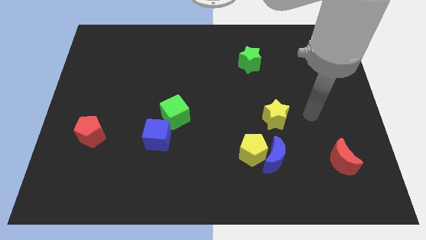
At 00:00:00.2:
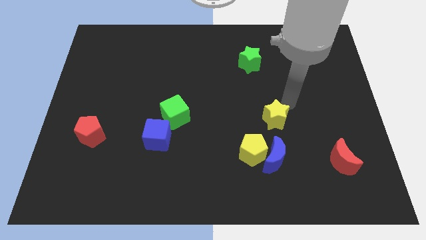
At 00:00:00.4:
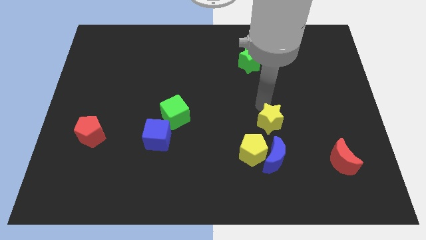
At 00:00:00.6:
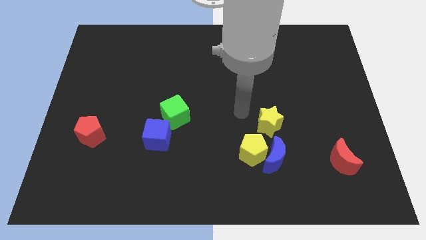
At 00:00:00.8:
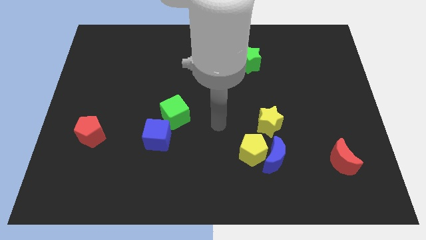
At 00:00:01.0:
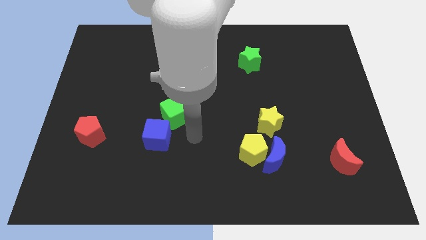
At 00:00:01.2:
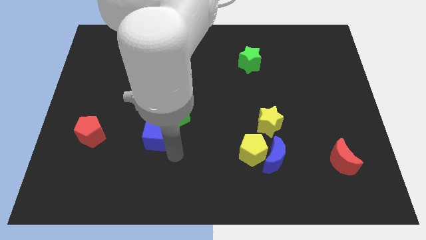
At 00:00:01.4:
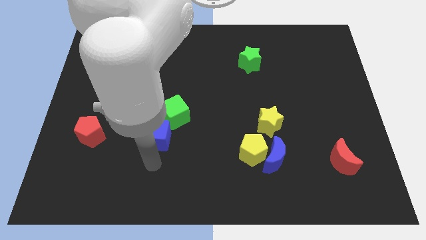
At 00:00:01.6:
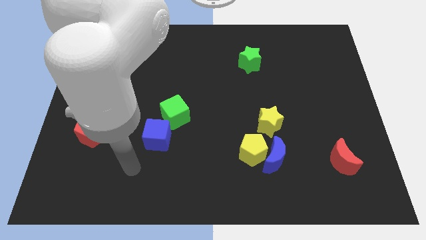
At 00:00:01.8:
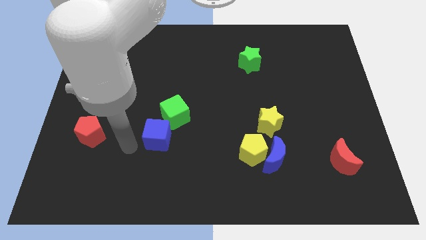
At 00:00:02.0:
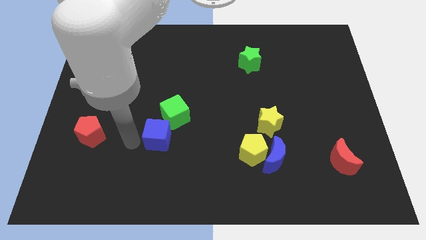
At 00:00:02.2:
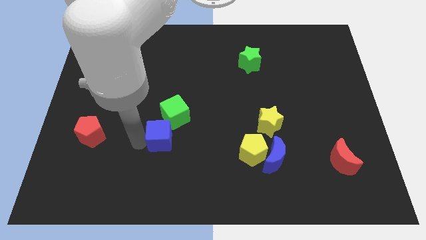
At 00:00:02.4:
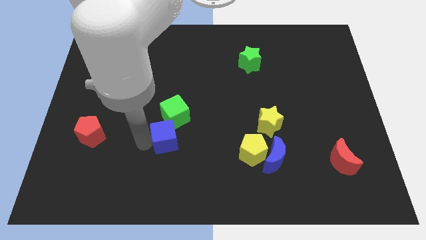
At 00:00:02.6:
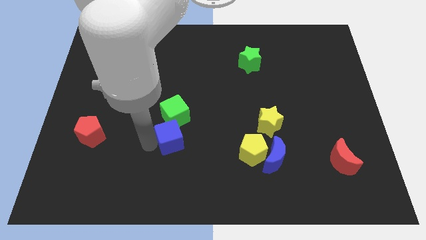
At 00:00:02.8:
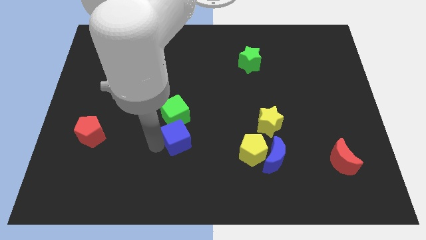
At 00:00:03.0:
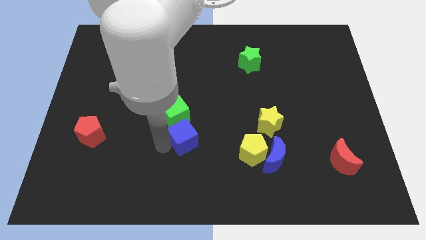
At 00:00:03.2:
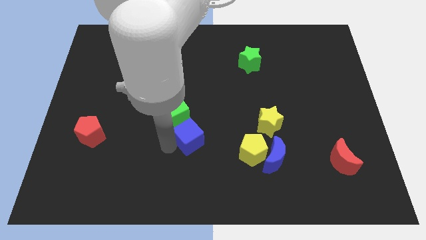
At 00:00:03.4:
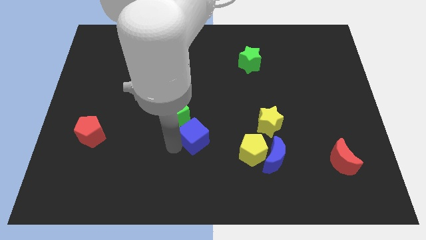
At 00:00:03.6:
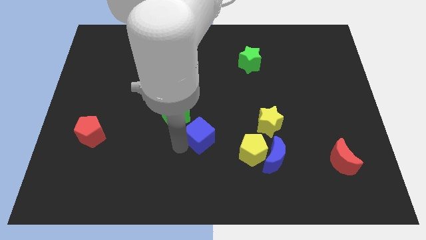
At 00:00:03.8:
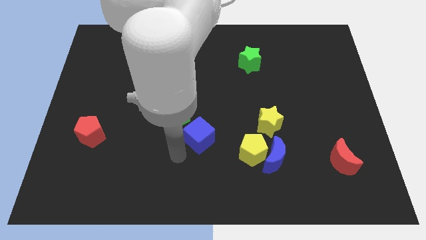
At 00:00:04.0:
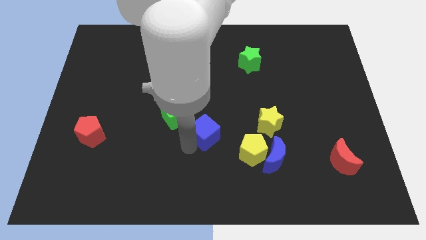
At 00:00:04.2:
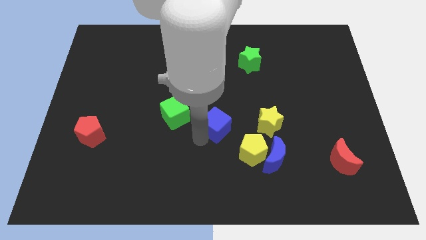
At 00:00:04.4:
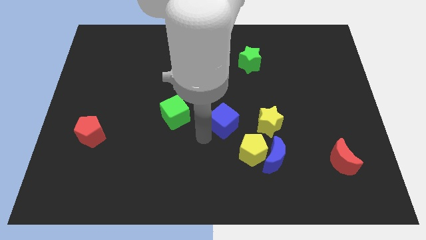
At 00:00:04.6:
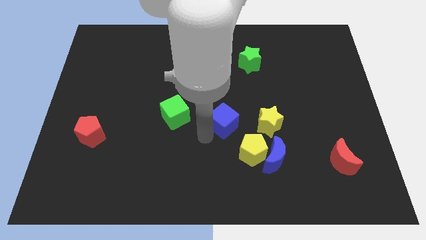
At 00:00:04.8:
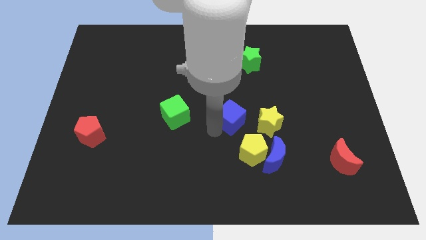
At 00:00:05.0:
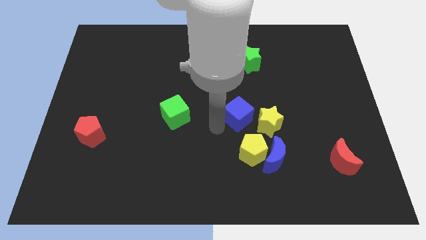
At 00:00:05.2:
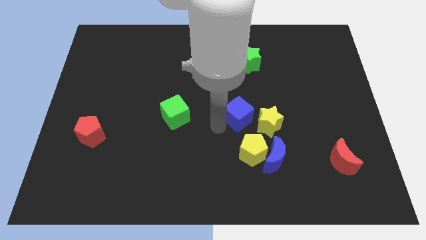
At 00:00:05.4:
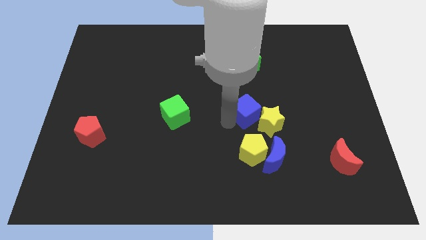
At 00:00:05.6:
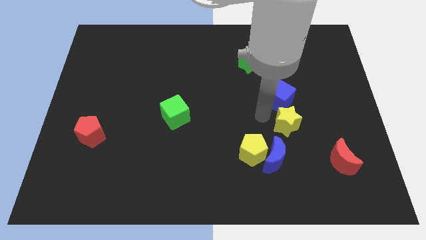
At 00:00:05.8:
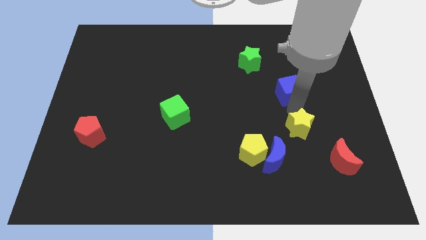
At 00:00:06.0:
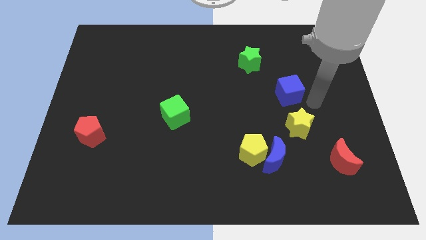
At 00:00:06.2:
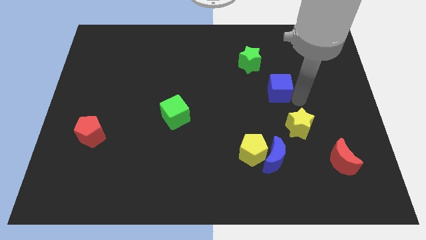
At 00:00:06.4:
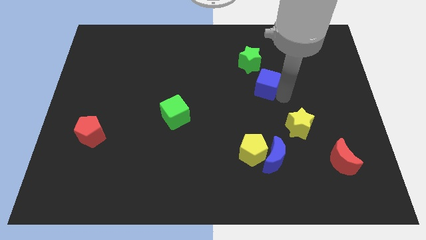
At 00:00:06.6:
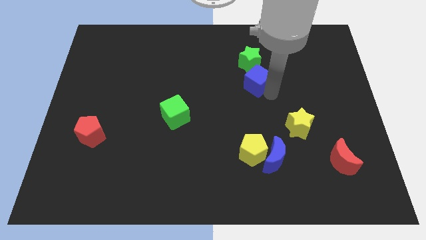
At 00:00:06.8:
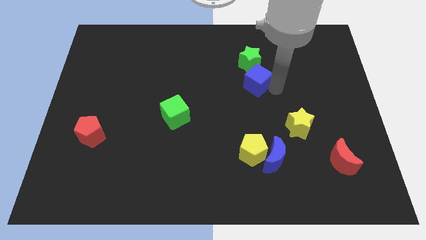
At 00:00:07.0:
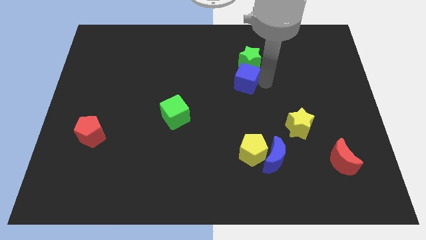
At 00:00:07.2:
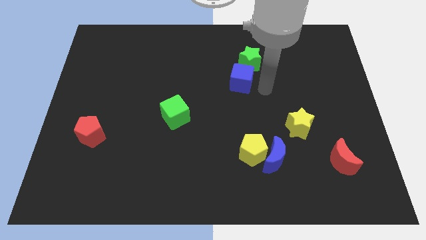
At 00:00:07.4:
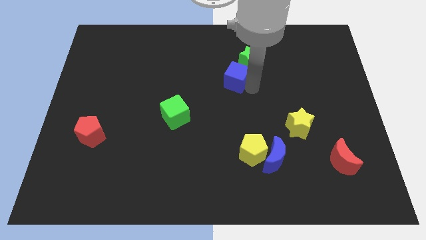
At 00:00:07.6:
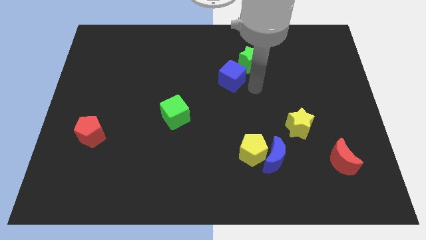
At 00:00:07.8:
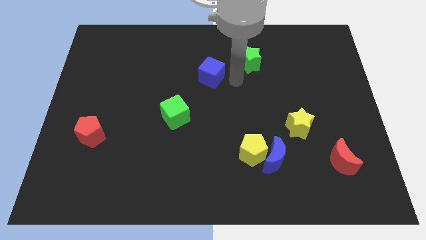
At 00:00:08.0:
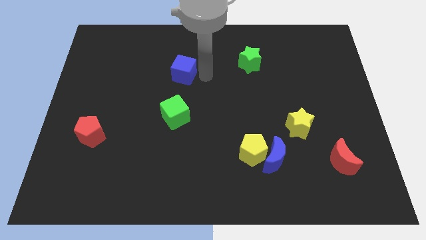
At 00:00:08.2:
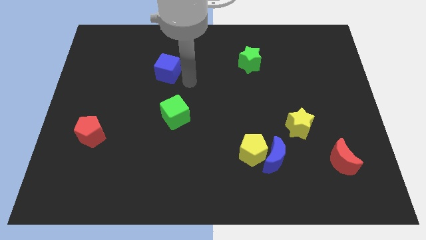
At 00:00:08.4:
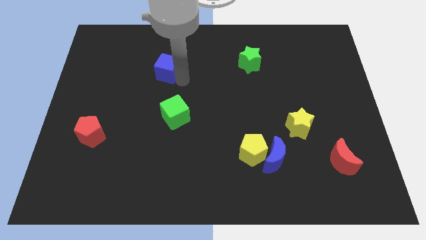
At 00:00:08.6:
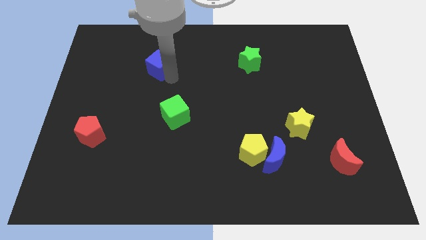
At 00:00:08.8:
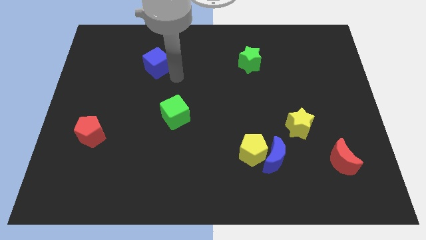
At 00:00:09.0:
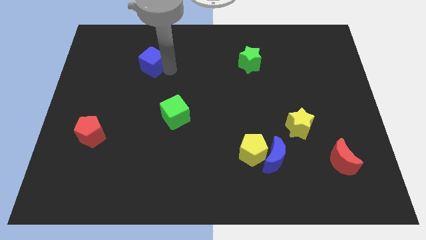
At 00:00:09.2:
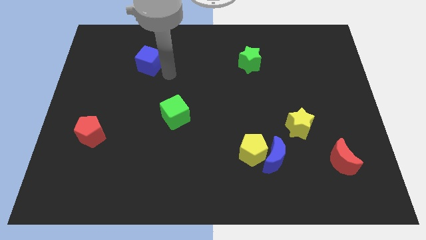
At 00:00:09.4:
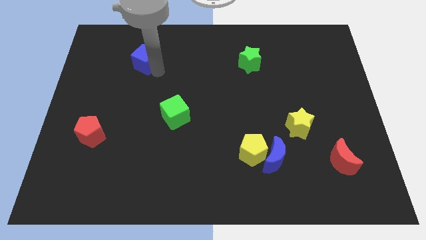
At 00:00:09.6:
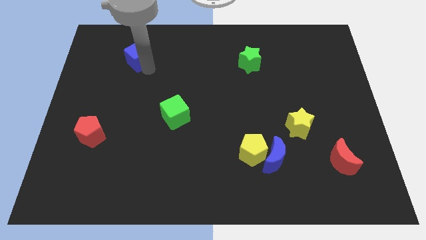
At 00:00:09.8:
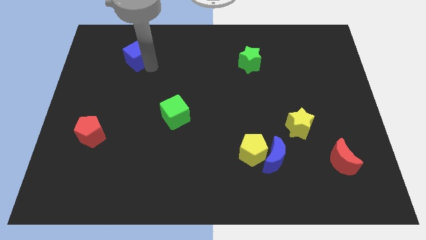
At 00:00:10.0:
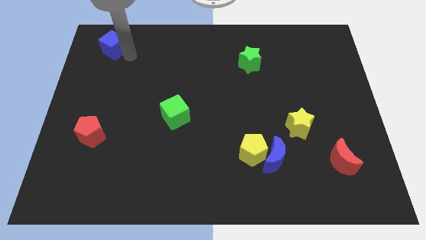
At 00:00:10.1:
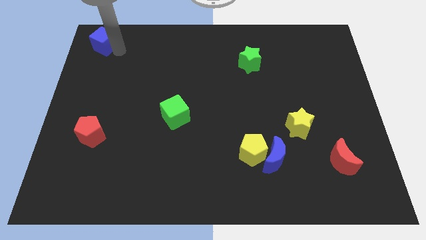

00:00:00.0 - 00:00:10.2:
put the blue cube to the top left corner
